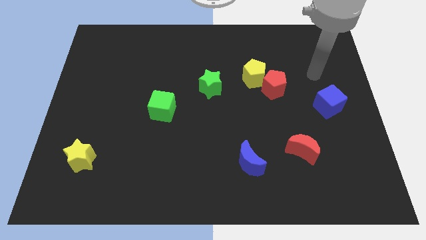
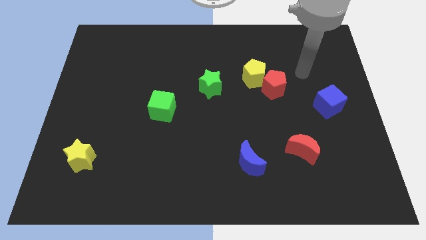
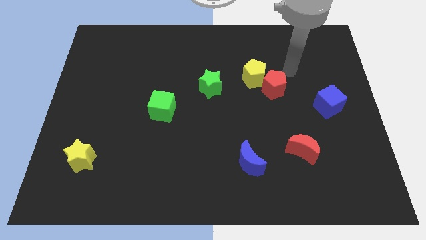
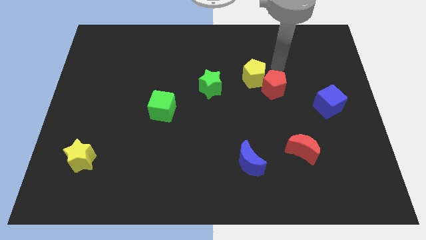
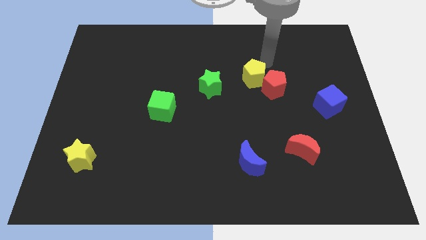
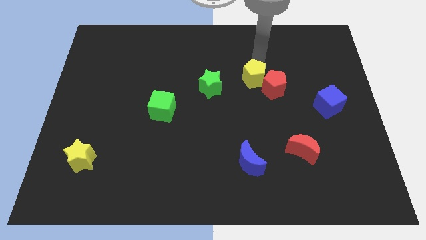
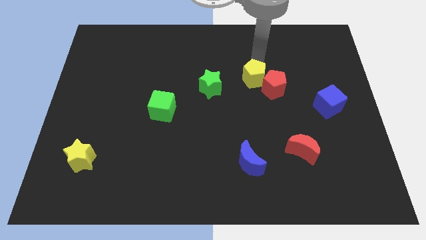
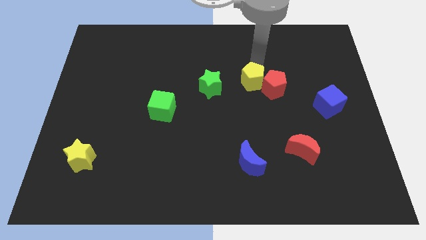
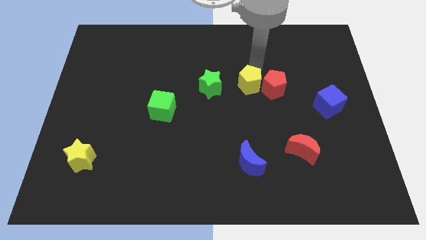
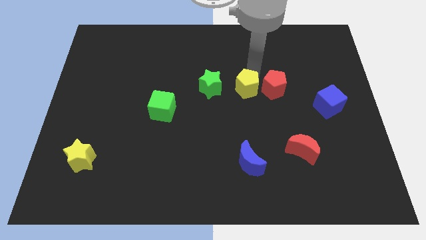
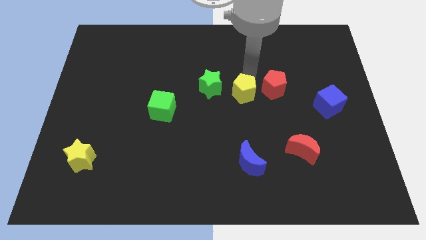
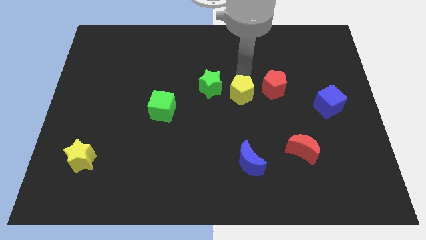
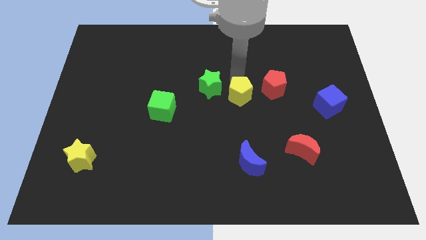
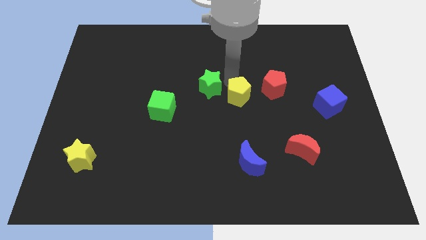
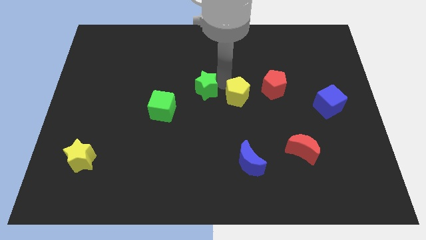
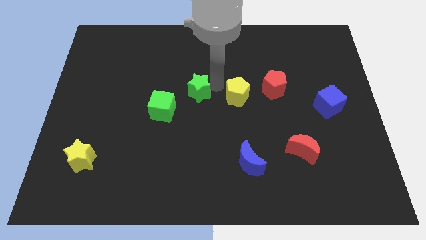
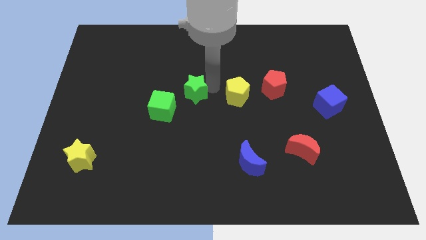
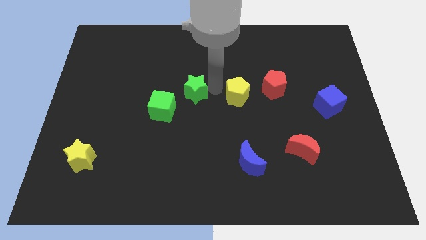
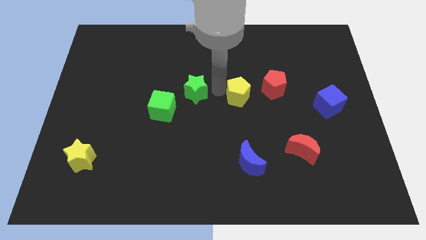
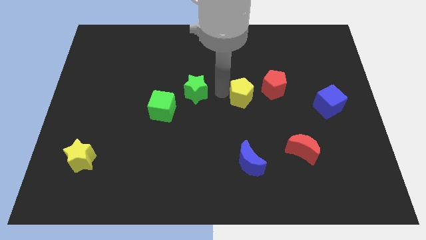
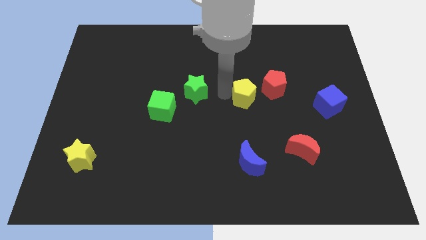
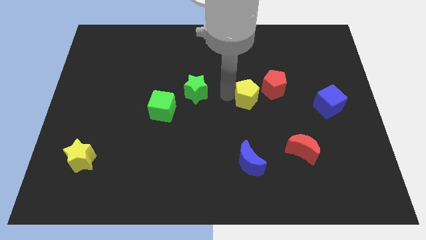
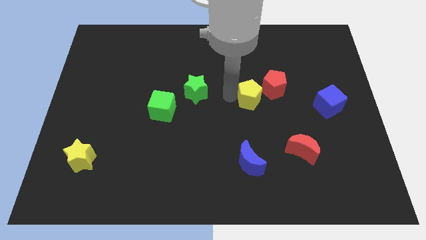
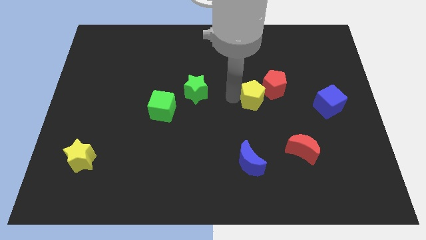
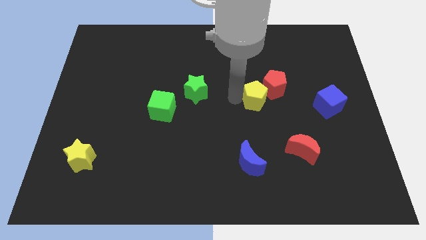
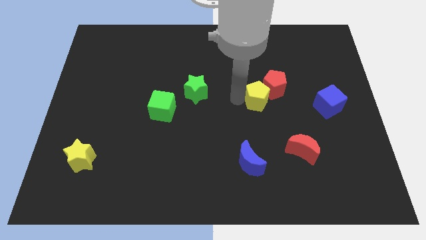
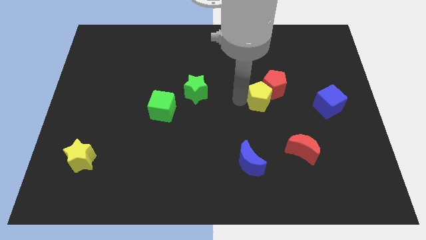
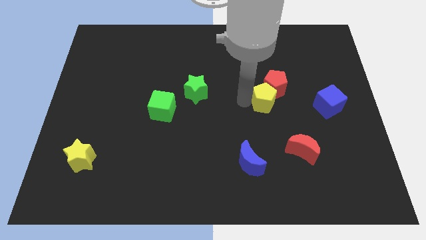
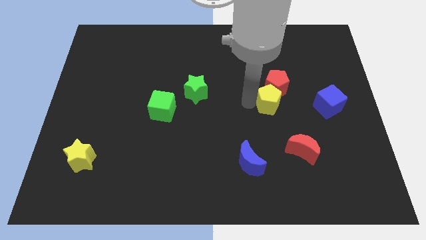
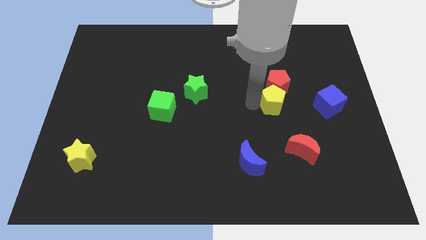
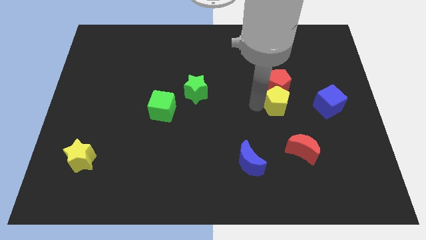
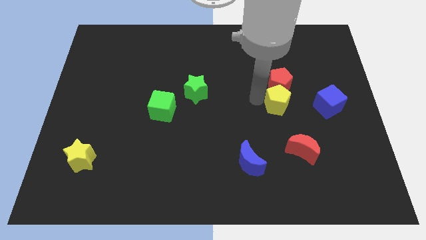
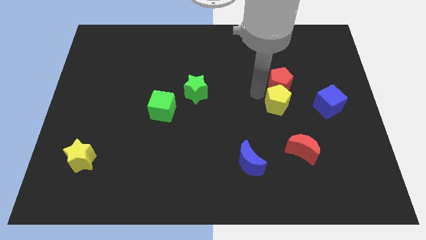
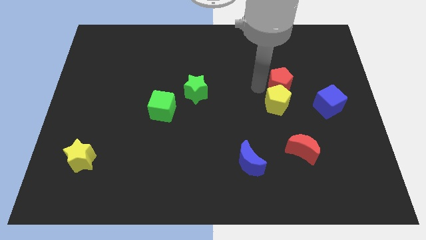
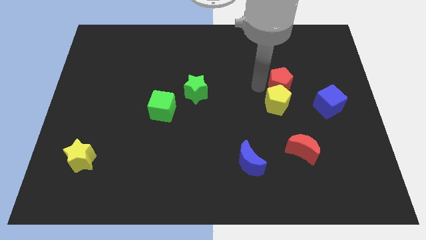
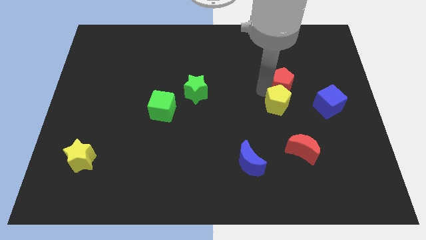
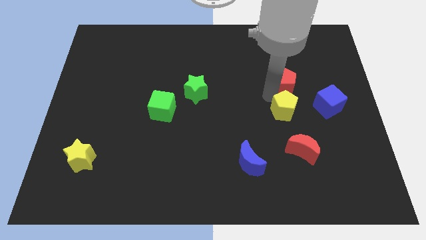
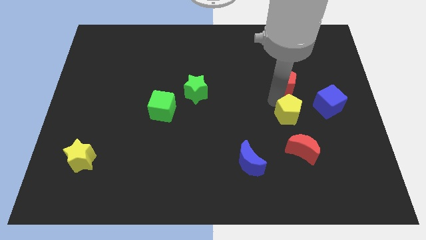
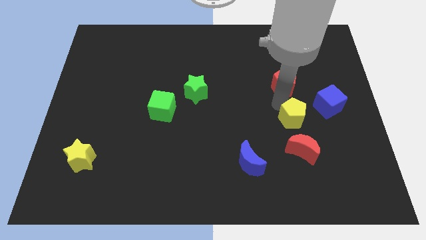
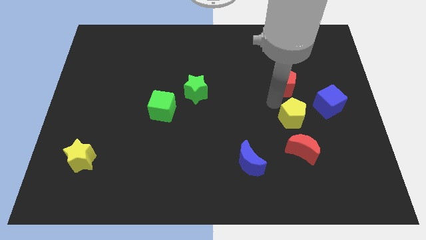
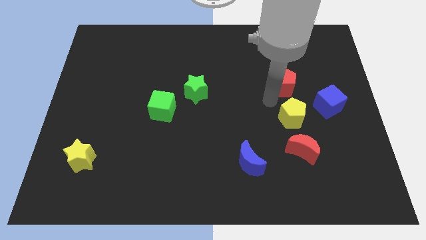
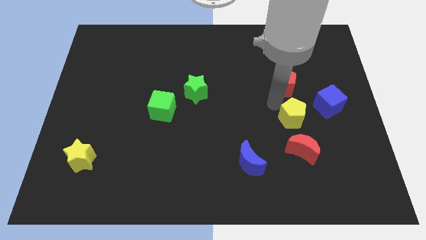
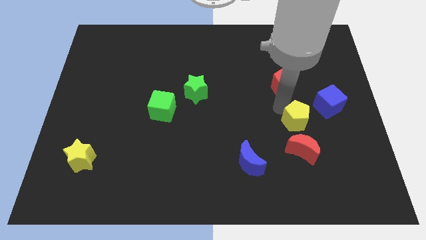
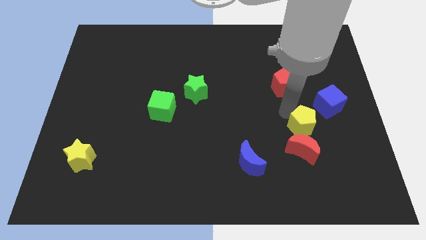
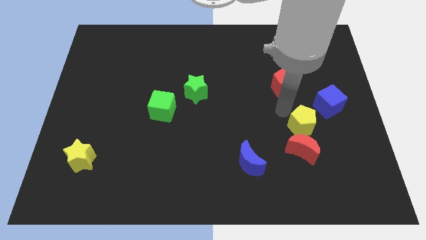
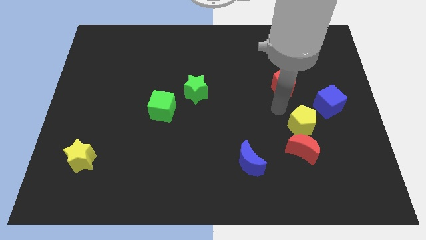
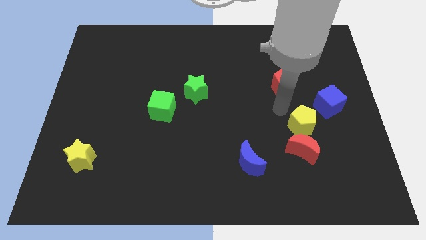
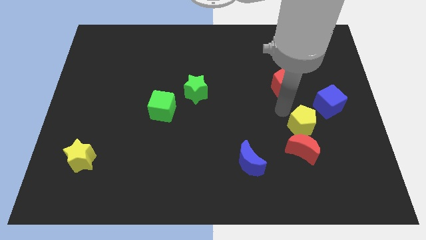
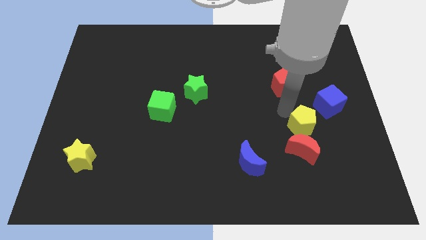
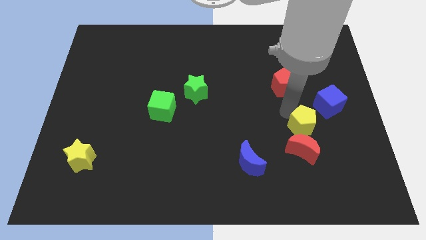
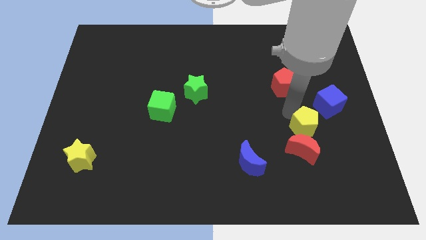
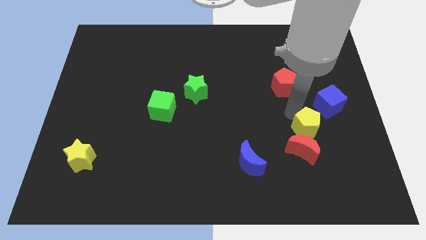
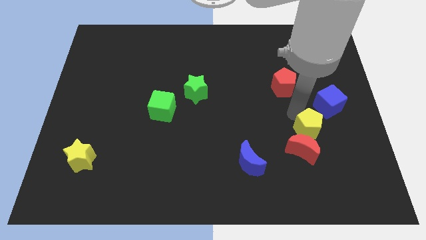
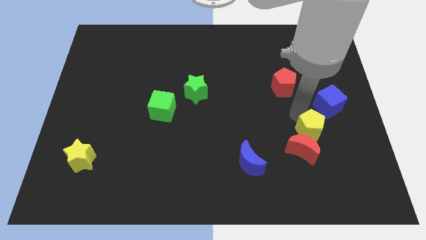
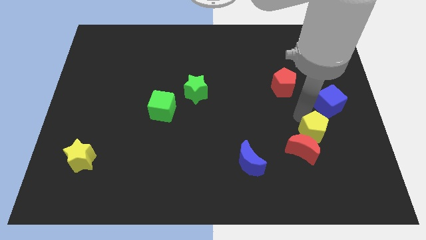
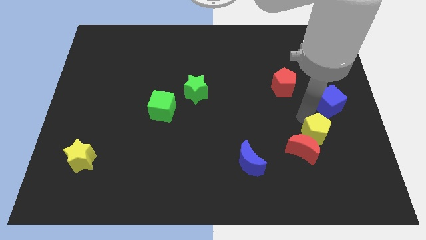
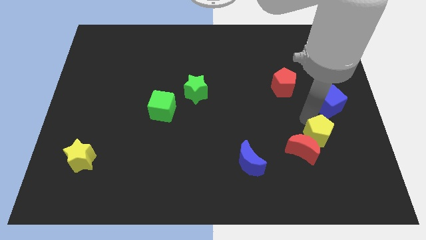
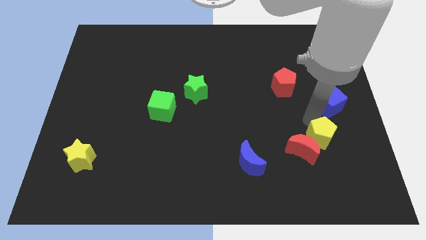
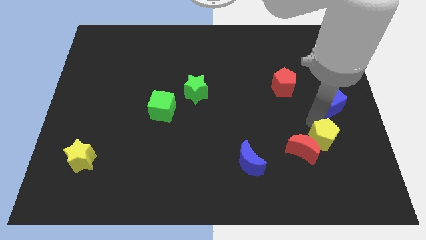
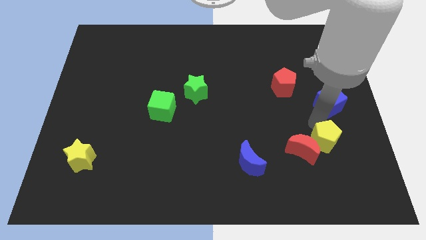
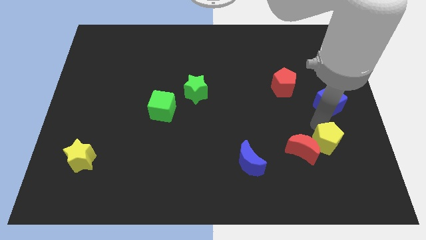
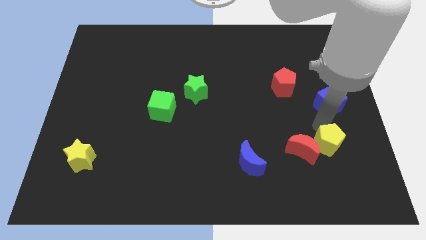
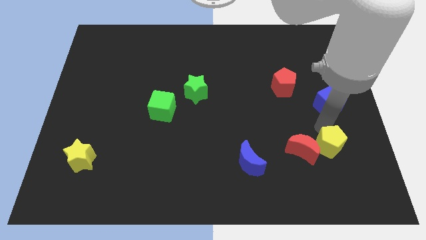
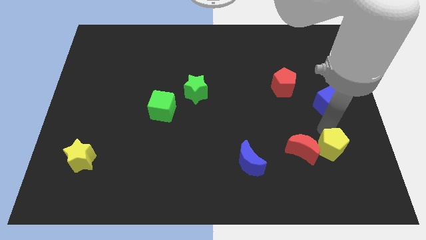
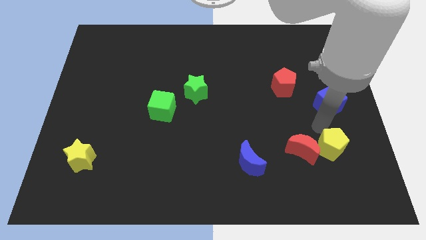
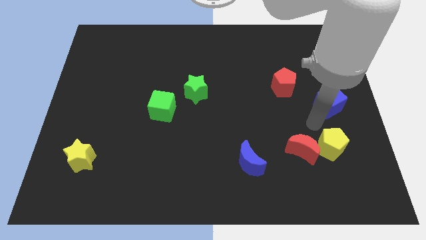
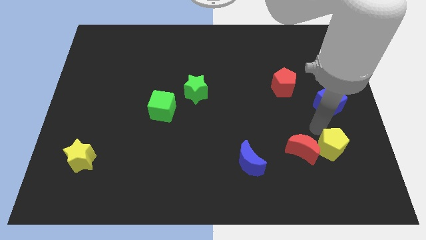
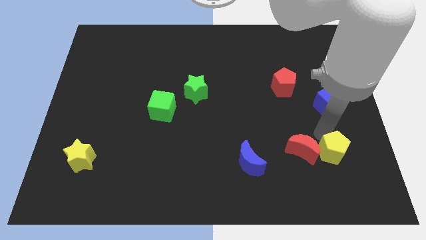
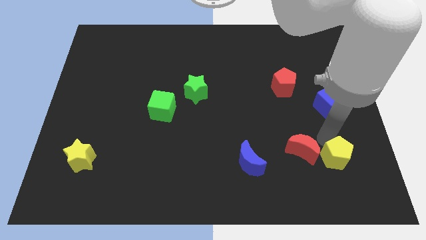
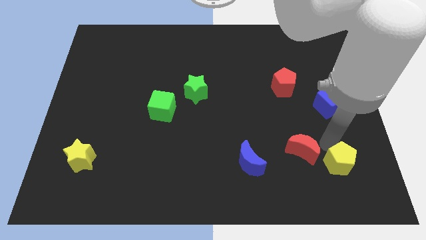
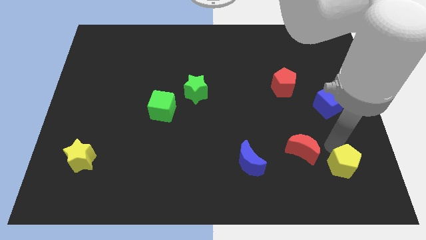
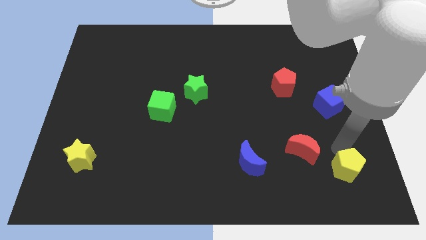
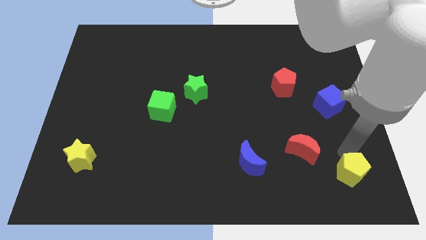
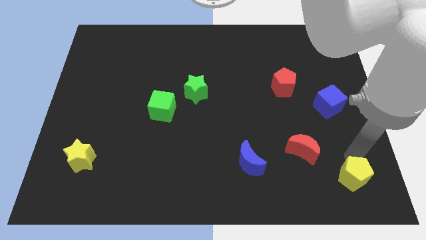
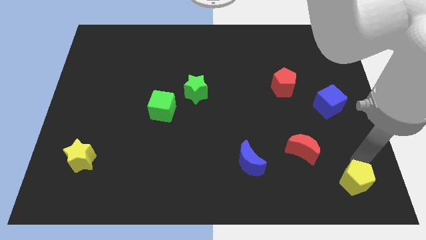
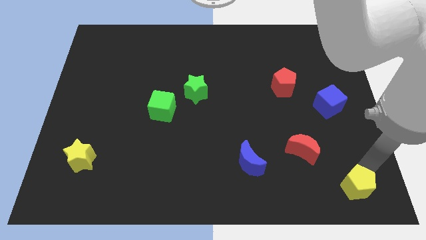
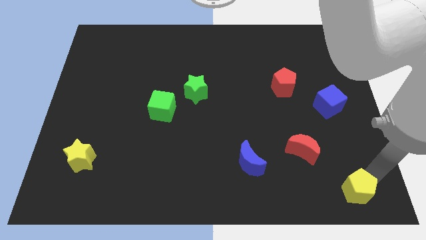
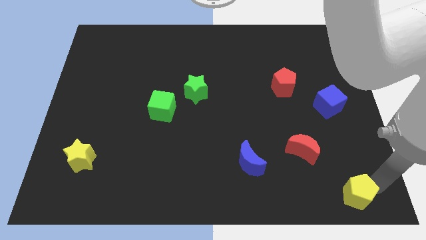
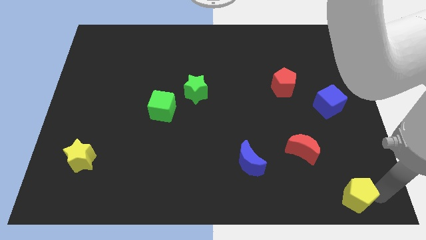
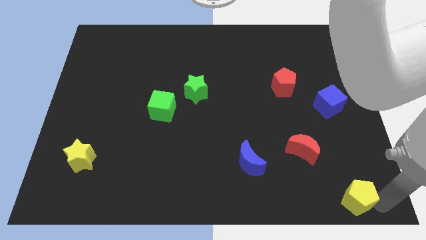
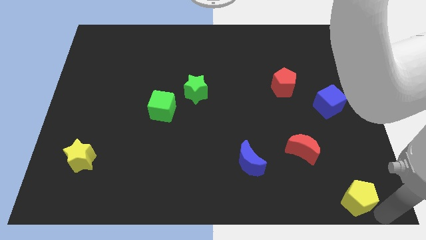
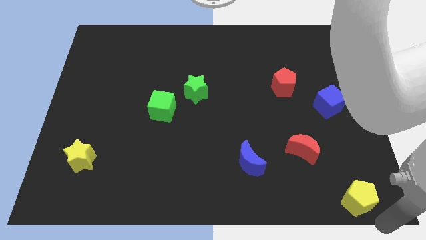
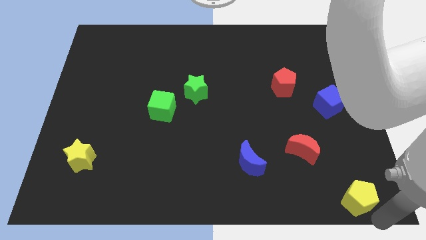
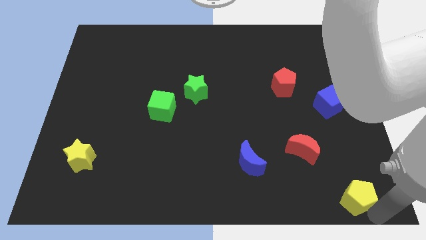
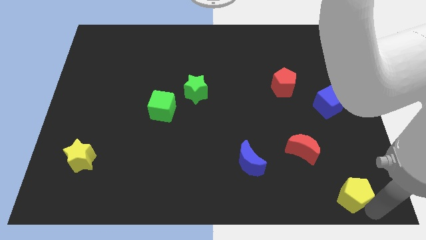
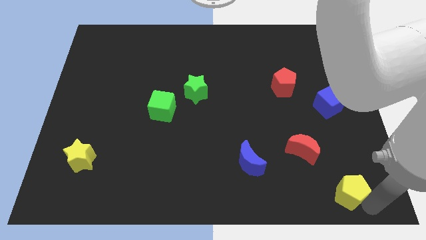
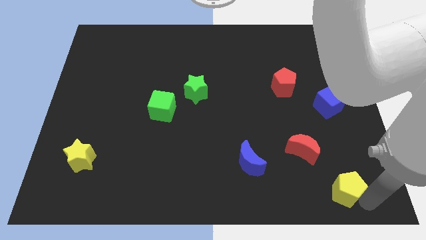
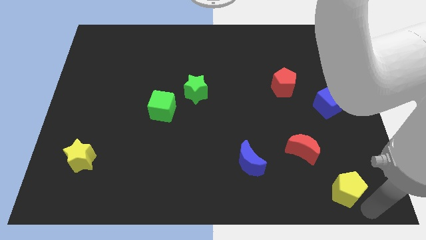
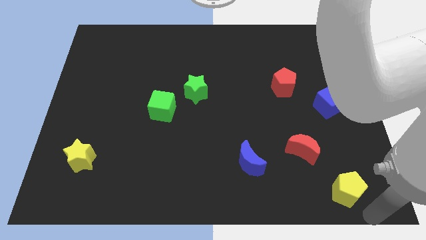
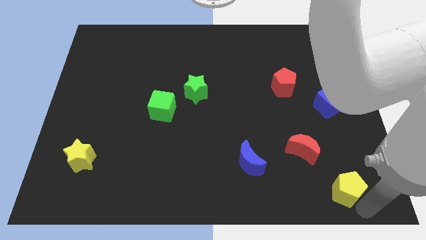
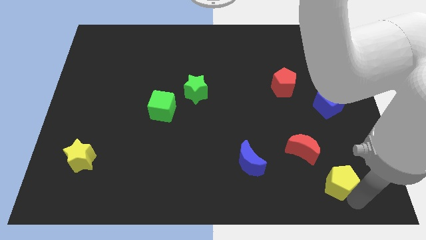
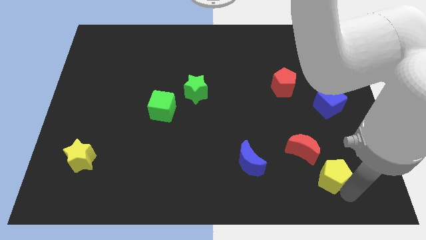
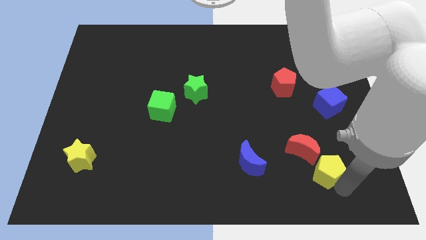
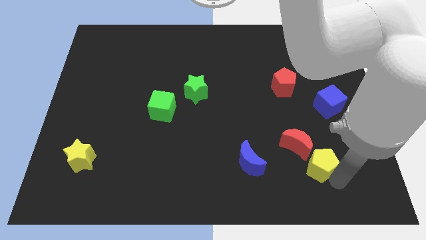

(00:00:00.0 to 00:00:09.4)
push the yellow pentagon just right of the blue moon
